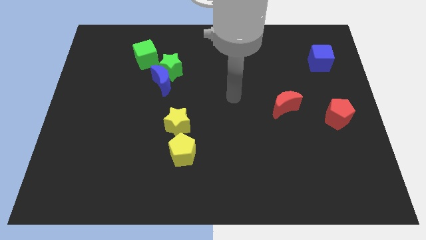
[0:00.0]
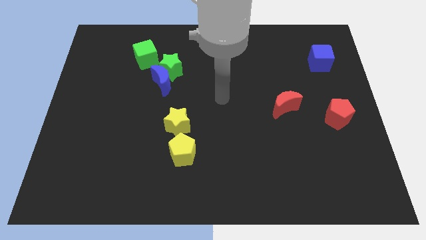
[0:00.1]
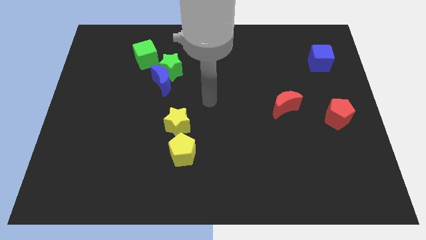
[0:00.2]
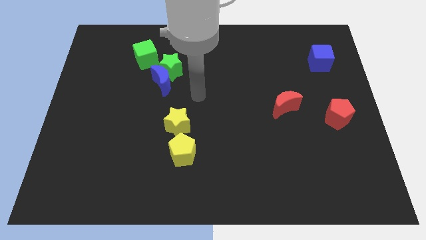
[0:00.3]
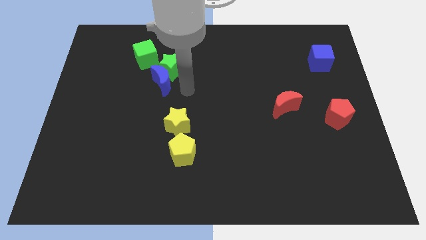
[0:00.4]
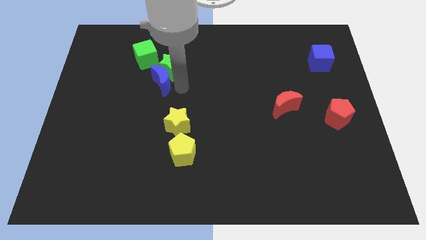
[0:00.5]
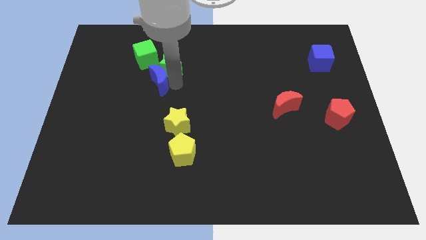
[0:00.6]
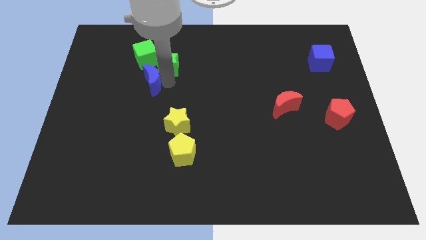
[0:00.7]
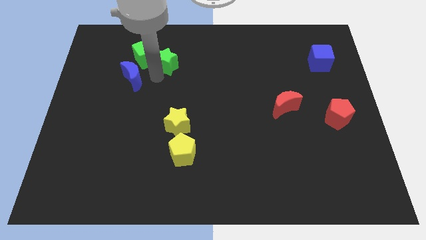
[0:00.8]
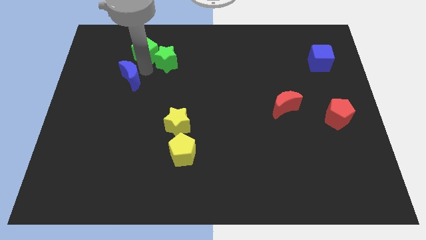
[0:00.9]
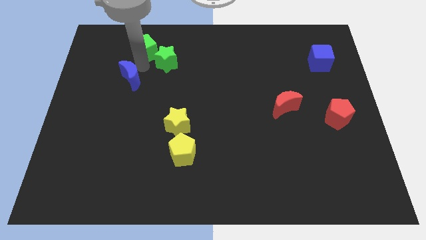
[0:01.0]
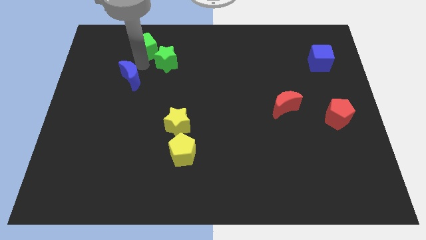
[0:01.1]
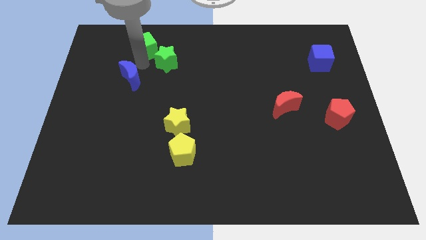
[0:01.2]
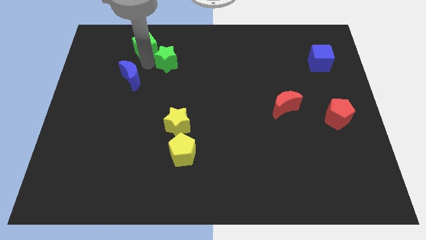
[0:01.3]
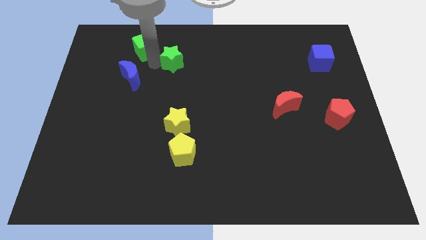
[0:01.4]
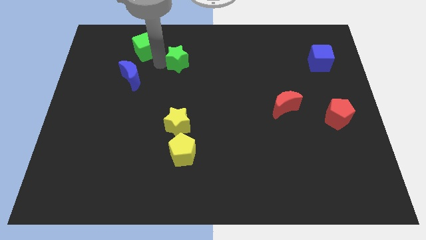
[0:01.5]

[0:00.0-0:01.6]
pull the green star apart from the blue moon and green cube

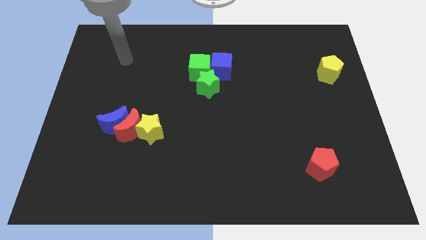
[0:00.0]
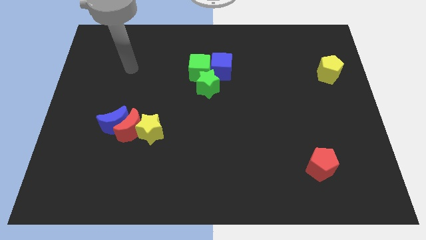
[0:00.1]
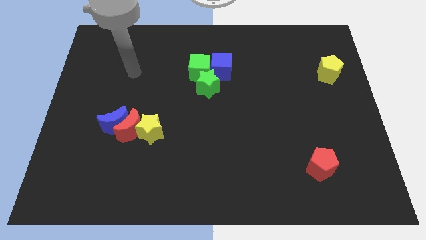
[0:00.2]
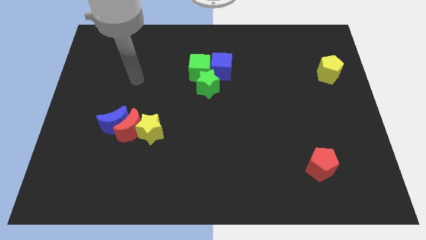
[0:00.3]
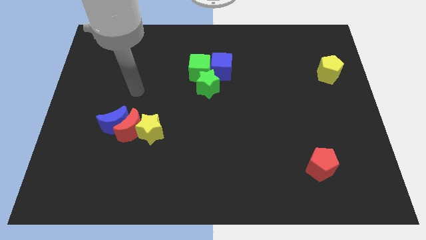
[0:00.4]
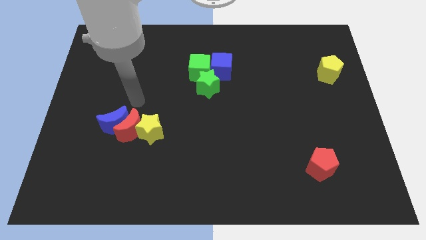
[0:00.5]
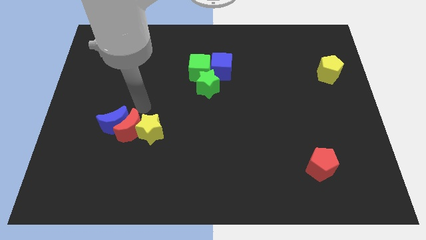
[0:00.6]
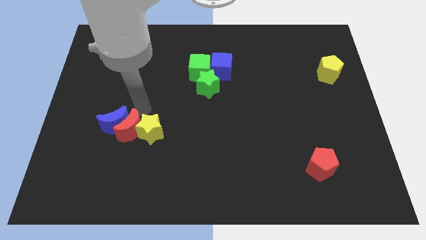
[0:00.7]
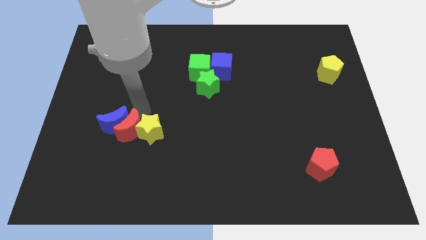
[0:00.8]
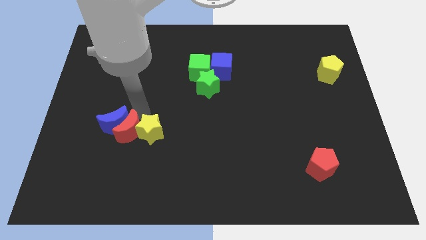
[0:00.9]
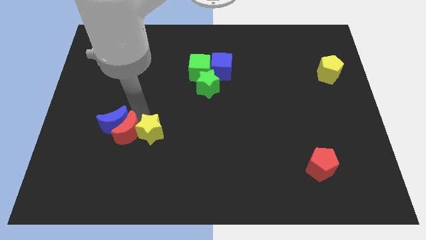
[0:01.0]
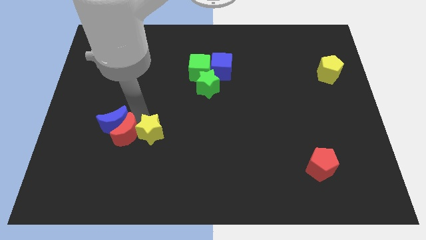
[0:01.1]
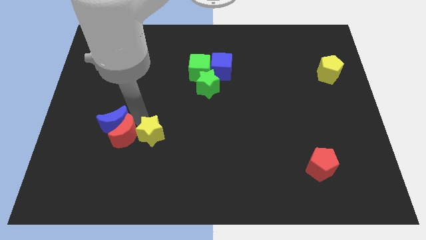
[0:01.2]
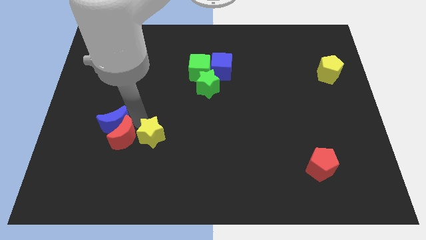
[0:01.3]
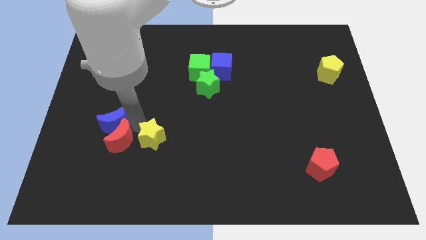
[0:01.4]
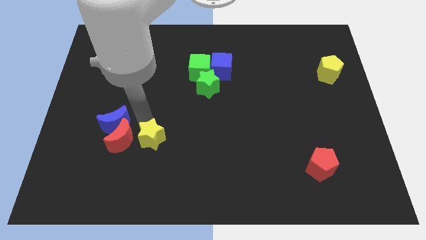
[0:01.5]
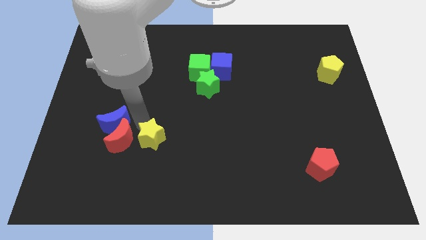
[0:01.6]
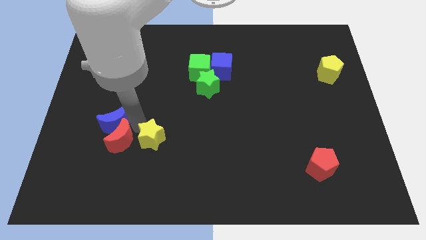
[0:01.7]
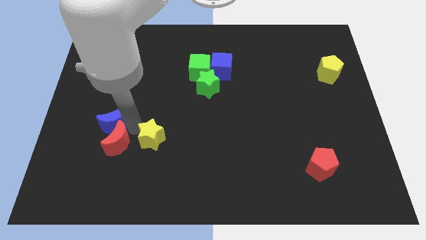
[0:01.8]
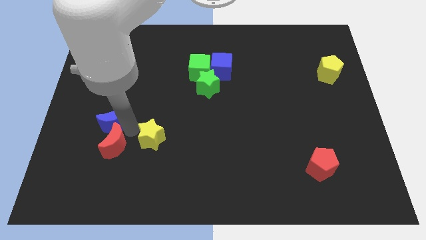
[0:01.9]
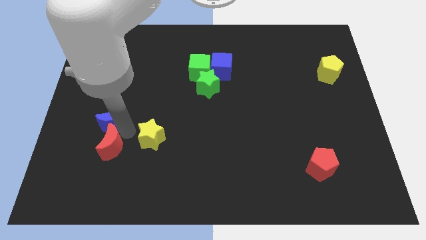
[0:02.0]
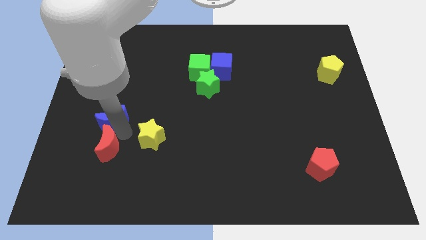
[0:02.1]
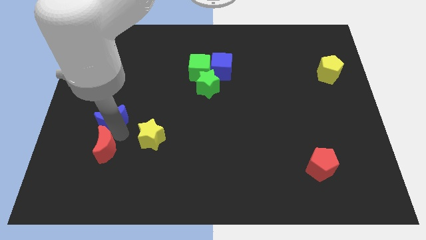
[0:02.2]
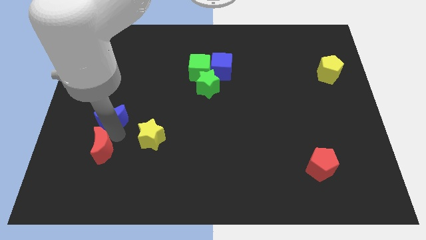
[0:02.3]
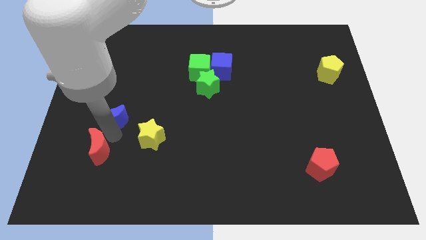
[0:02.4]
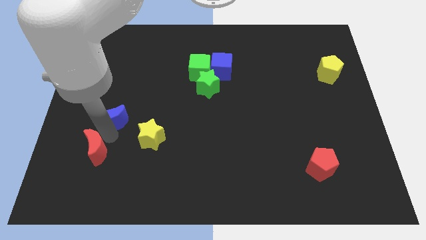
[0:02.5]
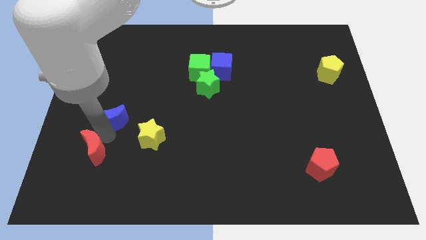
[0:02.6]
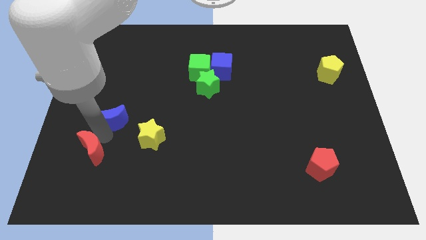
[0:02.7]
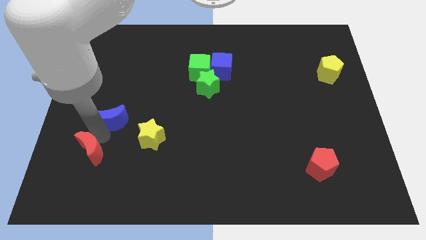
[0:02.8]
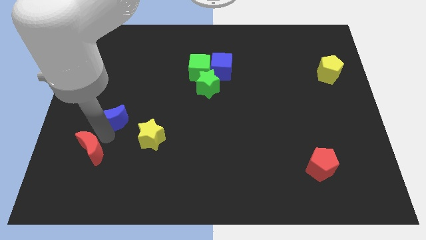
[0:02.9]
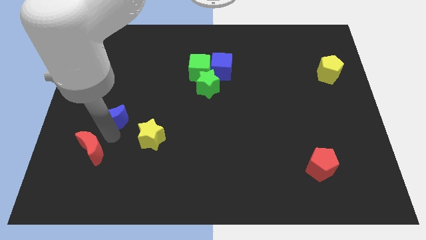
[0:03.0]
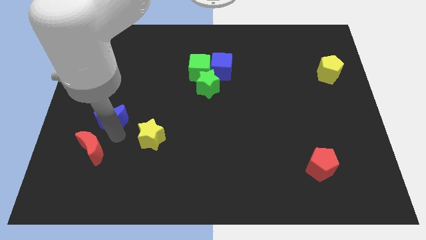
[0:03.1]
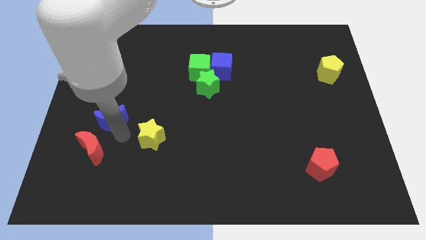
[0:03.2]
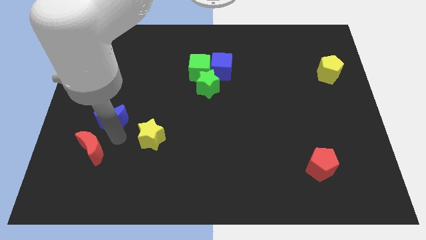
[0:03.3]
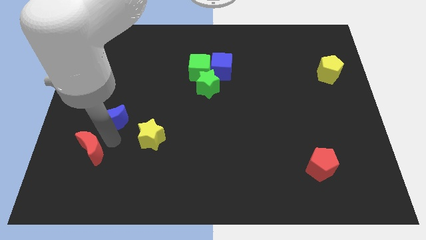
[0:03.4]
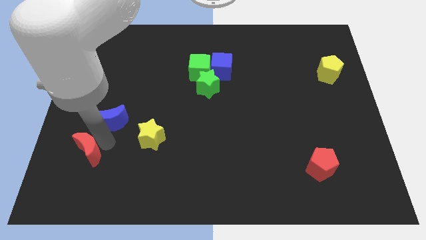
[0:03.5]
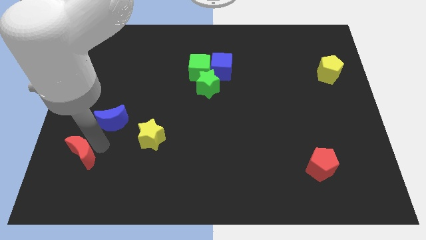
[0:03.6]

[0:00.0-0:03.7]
separate the red moon from the blue moon and yellow star

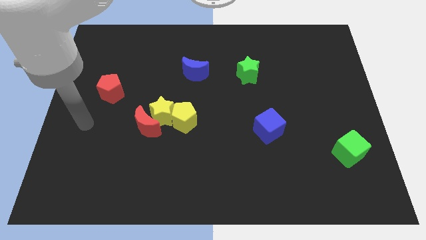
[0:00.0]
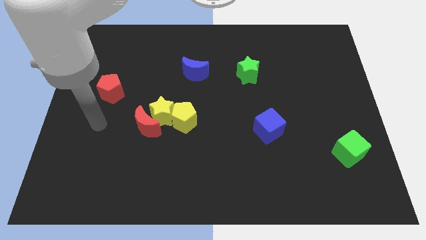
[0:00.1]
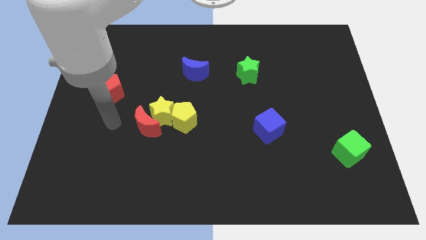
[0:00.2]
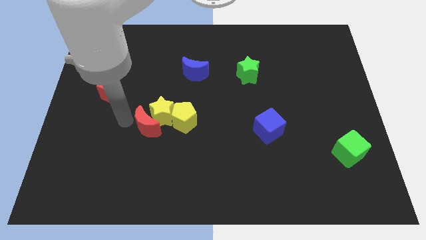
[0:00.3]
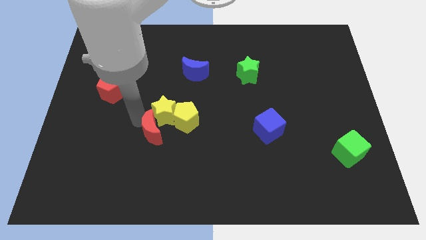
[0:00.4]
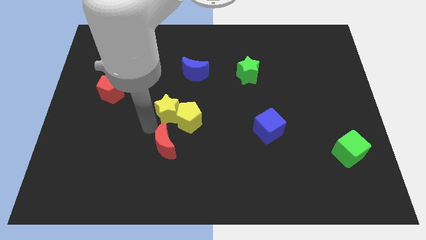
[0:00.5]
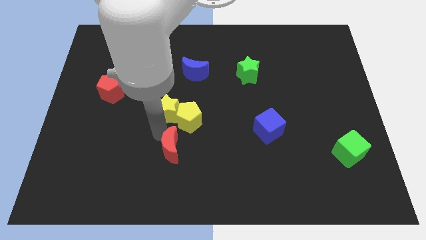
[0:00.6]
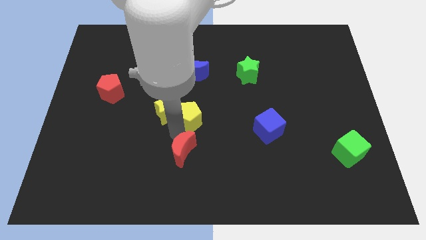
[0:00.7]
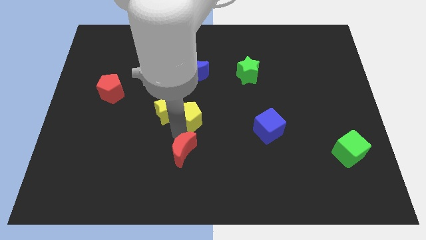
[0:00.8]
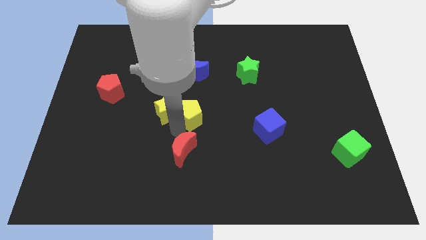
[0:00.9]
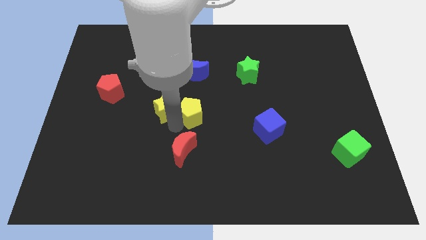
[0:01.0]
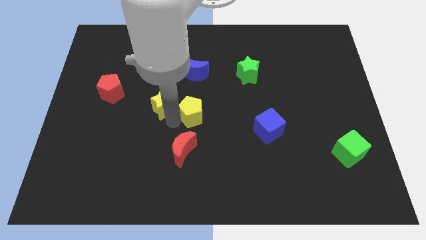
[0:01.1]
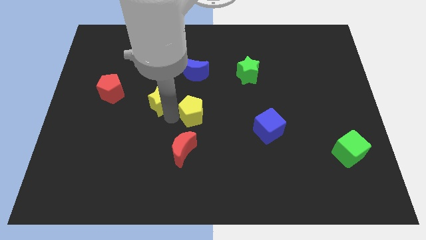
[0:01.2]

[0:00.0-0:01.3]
move the yellow star away from the red moon and yellow pentagon

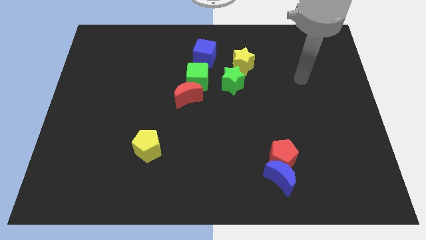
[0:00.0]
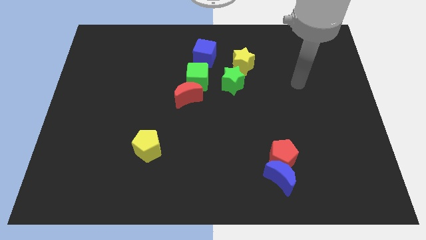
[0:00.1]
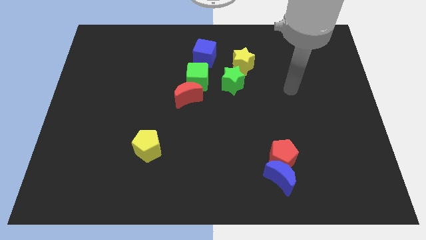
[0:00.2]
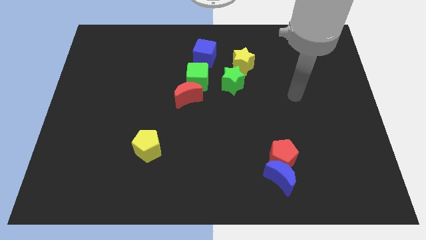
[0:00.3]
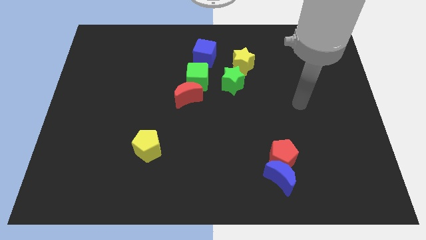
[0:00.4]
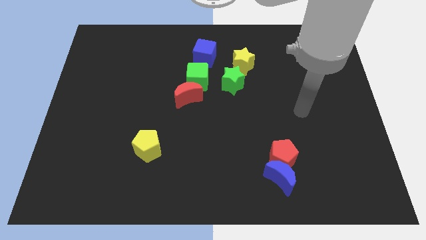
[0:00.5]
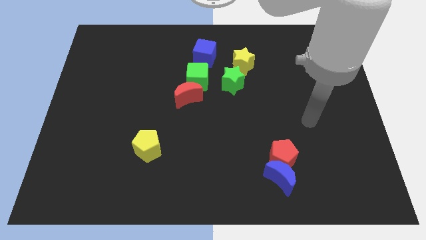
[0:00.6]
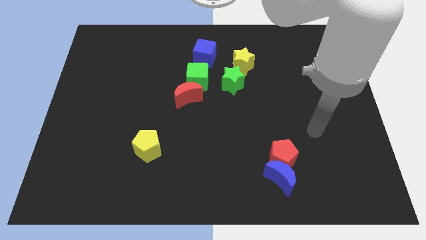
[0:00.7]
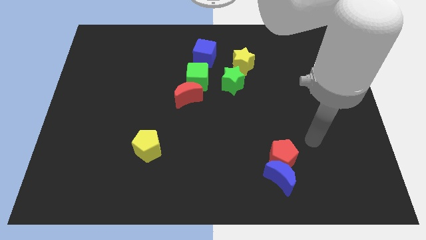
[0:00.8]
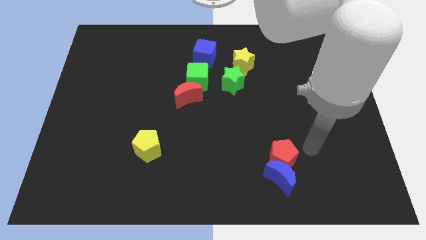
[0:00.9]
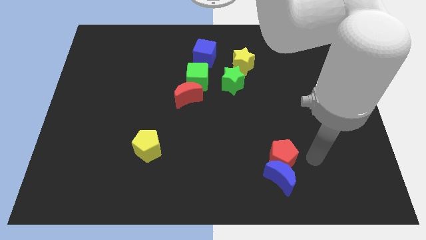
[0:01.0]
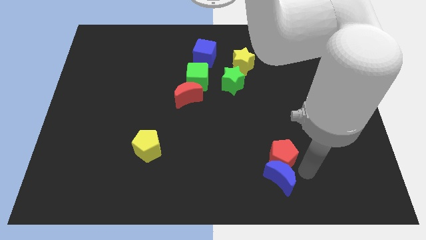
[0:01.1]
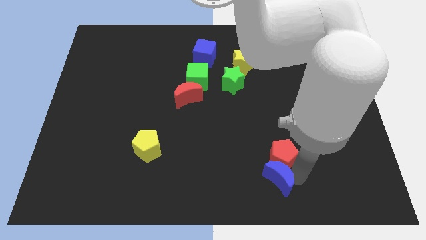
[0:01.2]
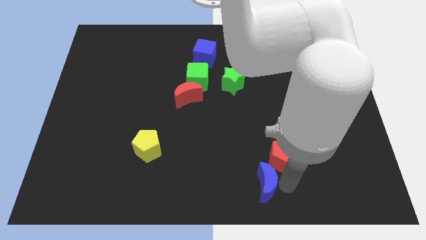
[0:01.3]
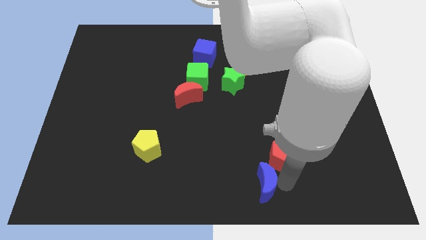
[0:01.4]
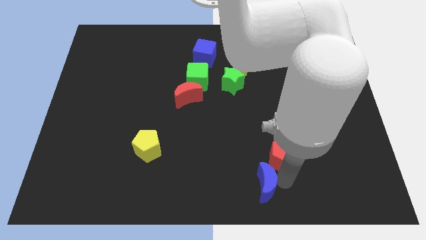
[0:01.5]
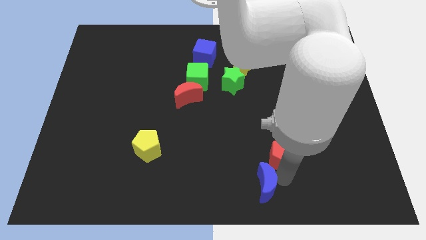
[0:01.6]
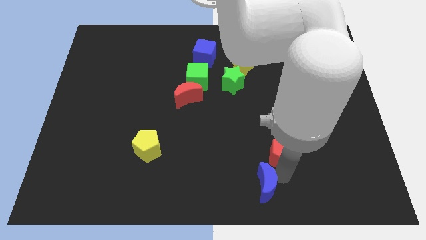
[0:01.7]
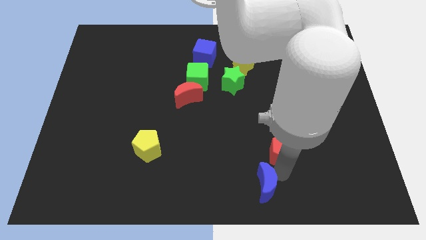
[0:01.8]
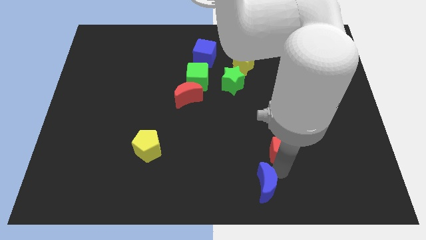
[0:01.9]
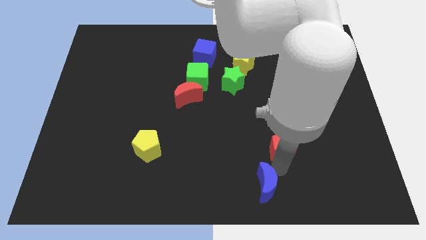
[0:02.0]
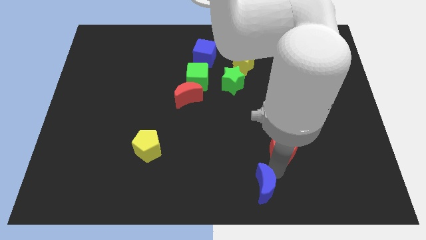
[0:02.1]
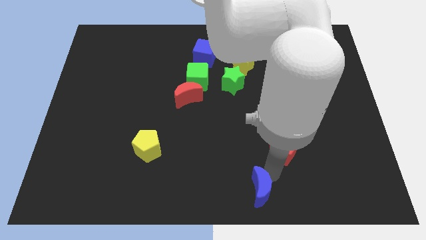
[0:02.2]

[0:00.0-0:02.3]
pull the red pentagon apart from the blue moon

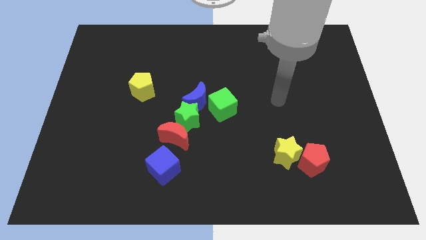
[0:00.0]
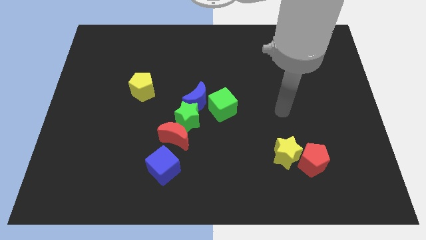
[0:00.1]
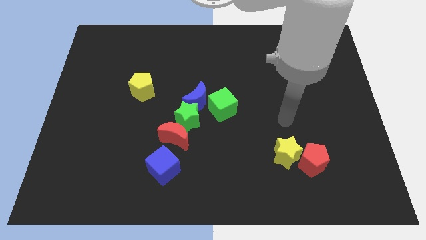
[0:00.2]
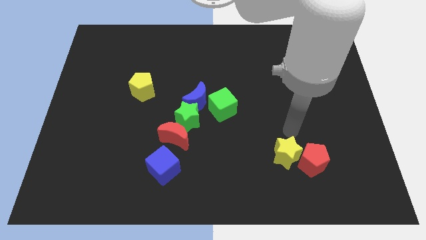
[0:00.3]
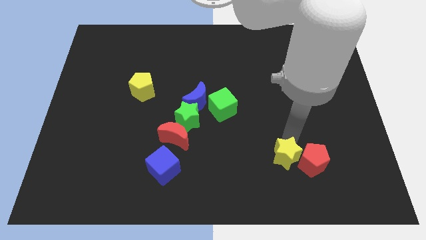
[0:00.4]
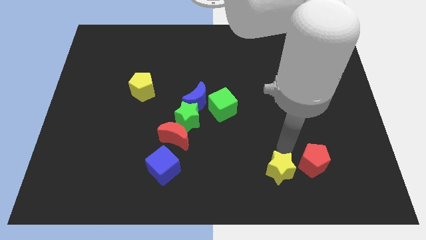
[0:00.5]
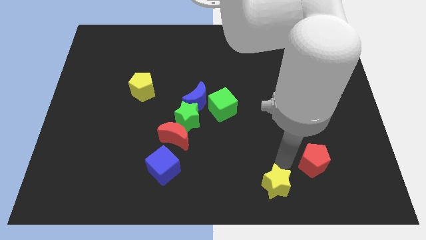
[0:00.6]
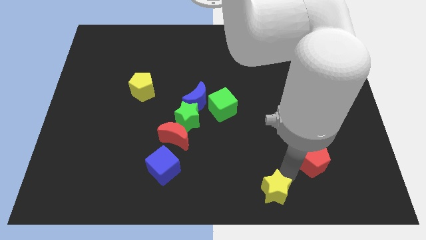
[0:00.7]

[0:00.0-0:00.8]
move the red pentagon away from the yellow star
